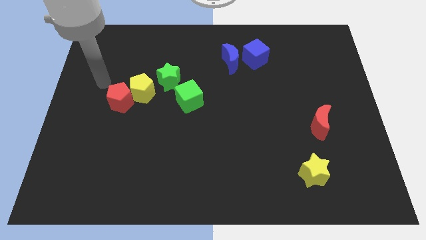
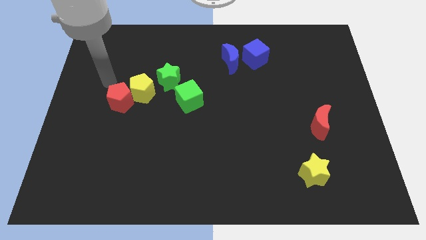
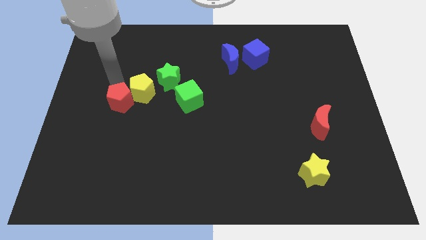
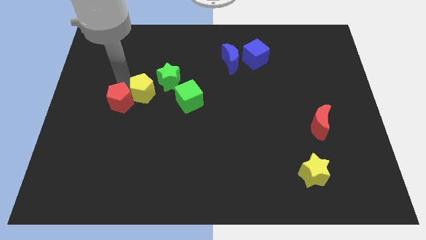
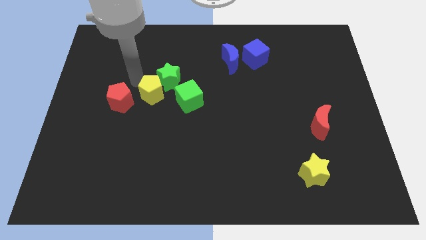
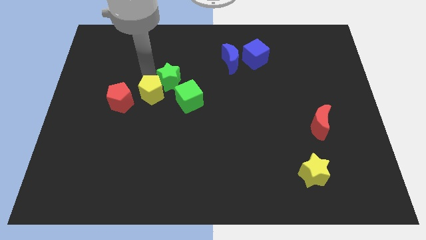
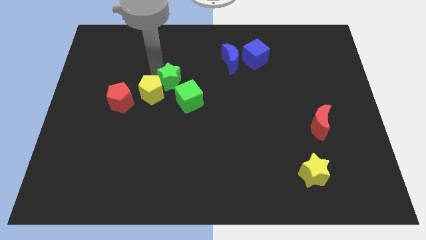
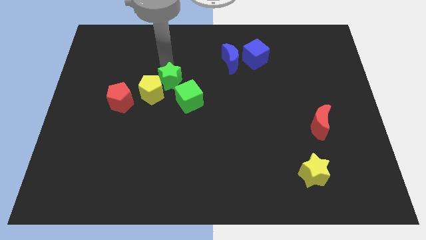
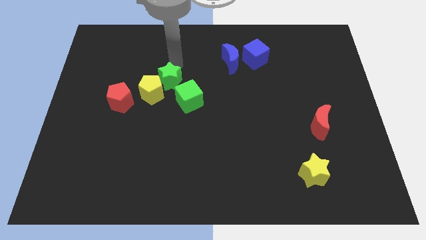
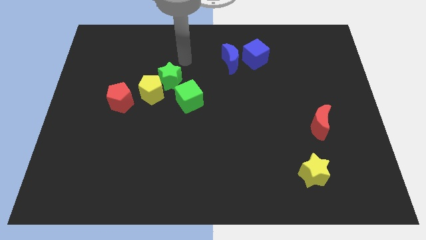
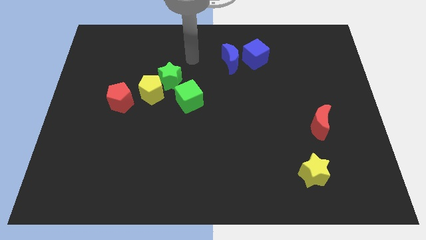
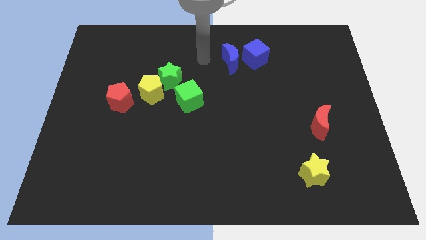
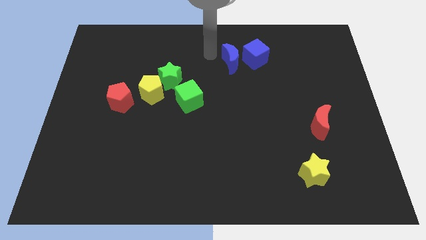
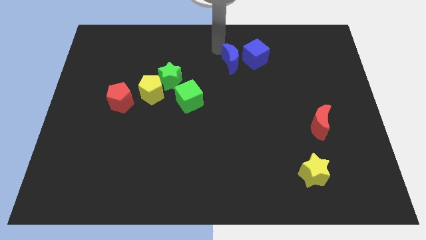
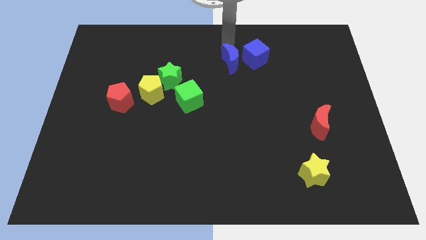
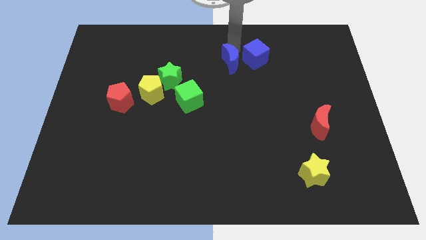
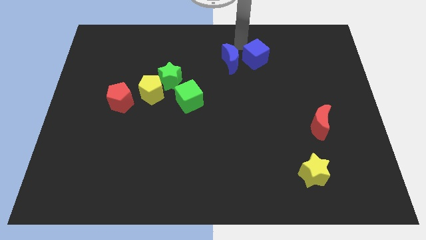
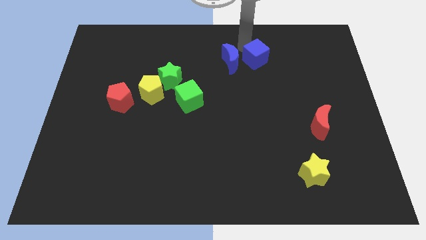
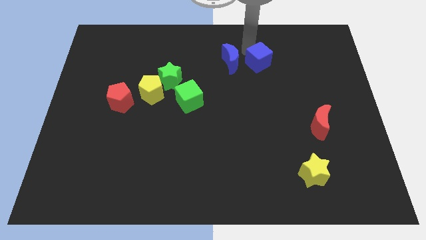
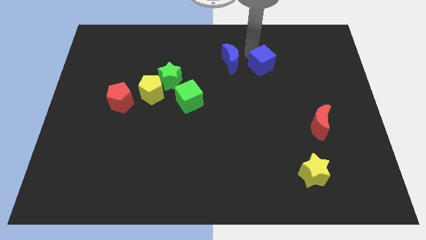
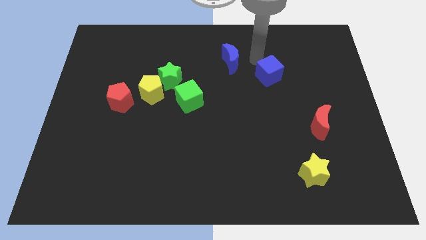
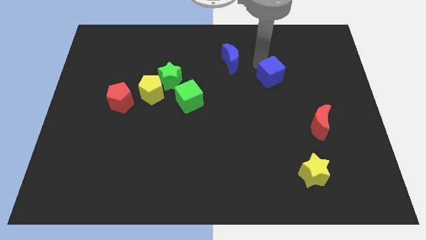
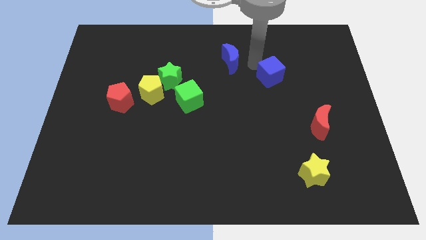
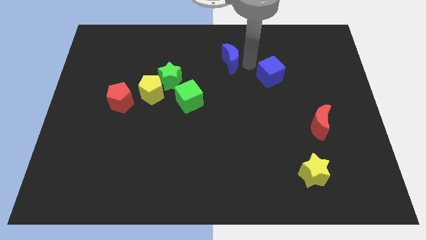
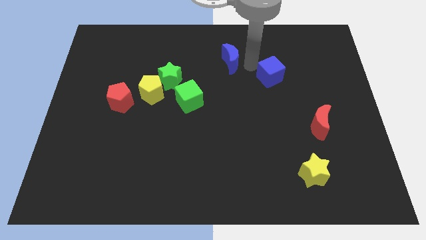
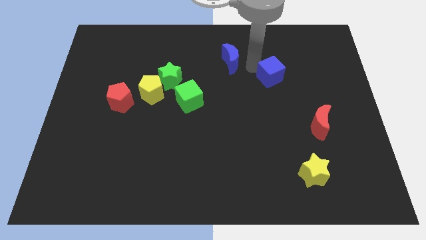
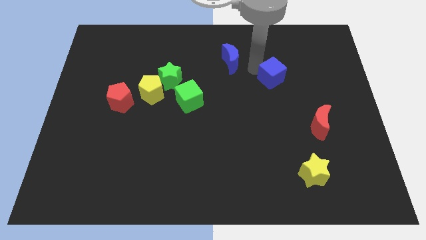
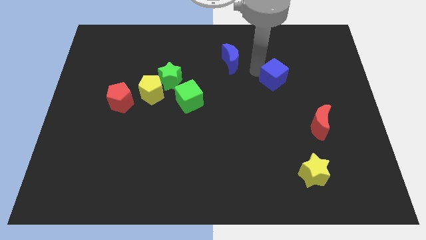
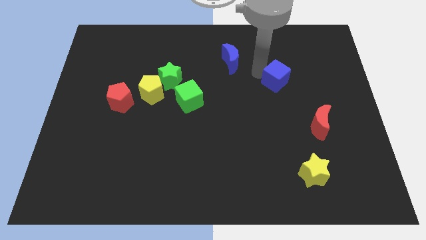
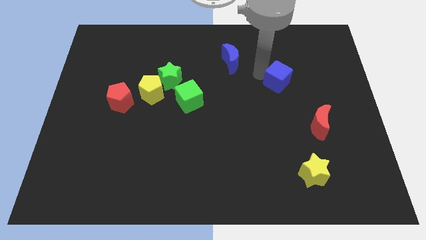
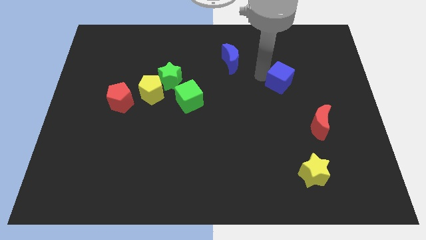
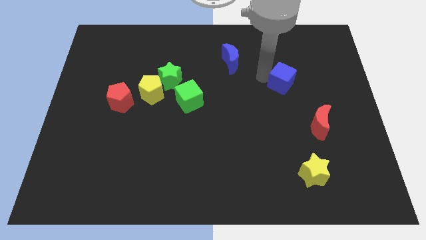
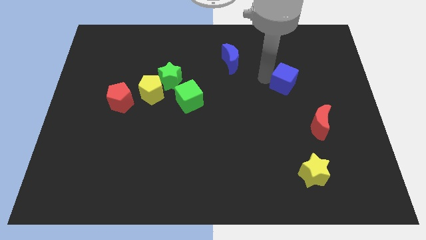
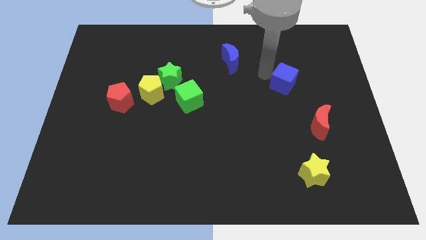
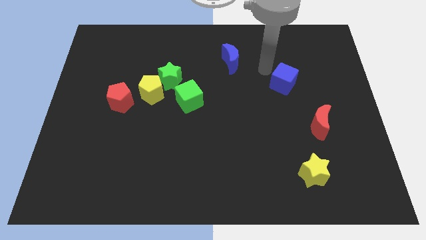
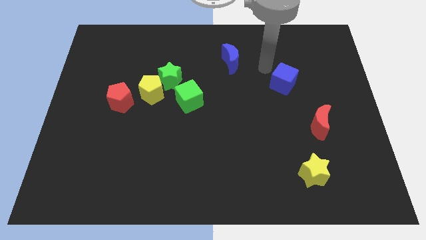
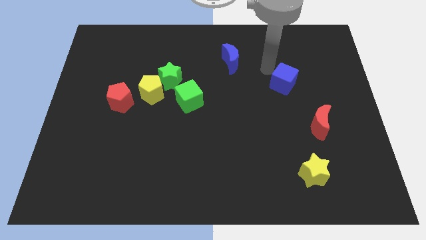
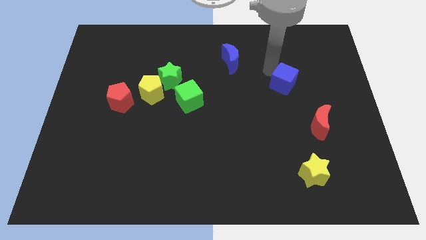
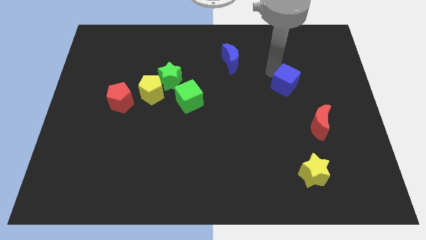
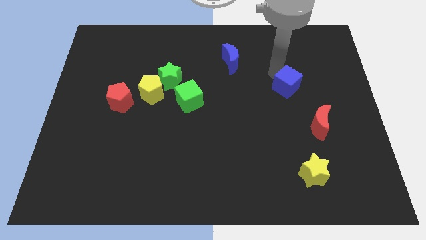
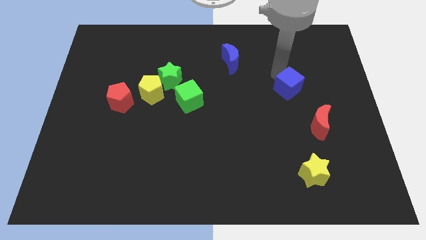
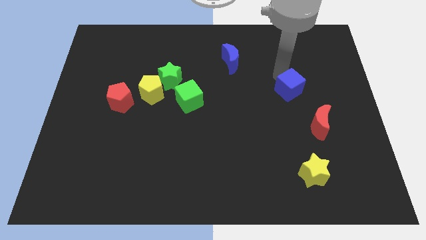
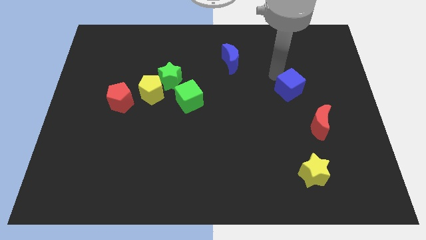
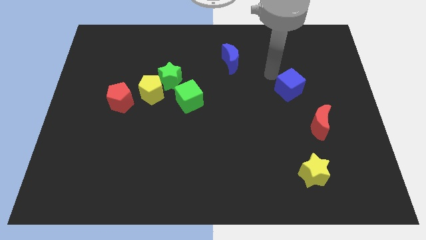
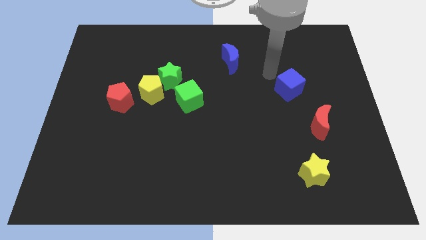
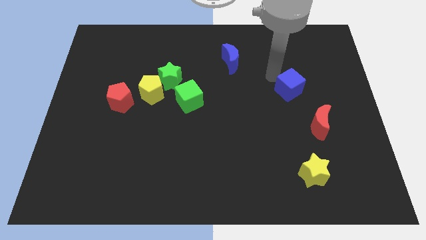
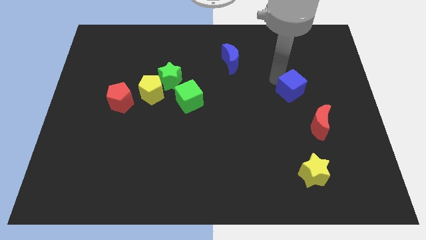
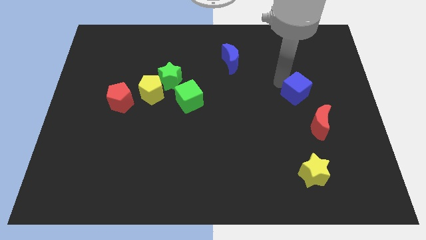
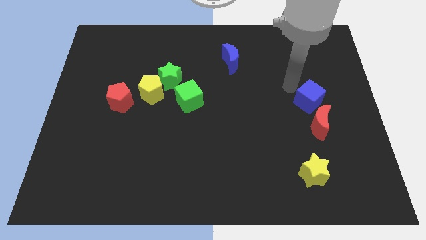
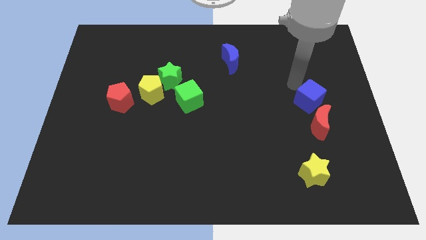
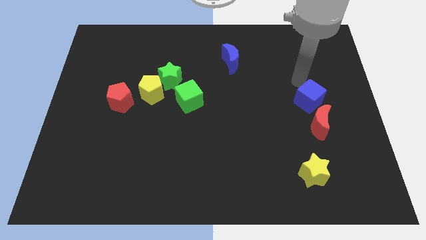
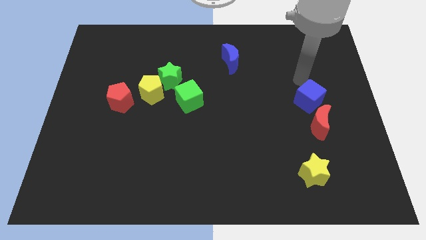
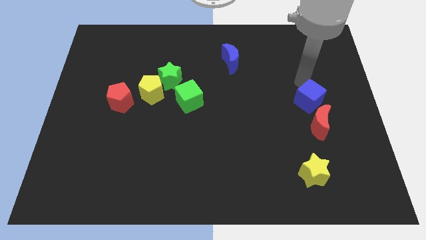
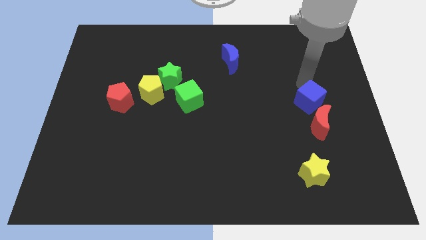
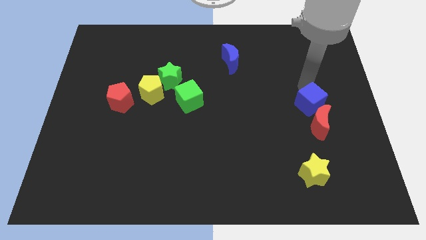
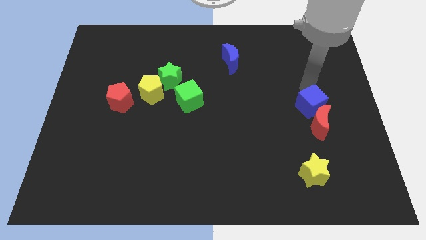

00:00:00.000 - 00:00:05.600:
move the blue cube close to the red moon

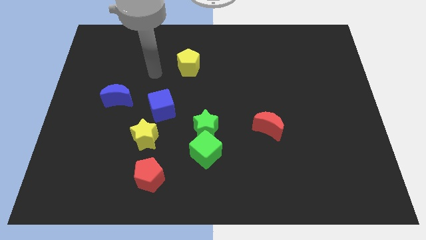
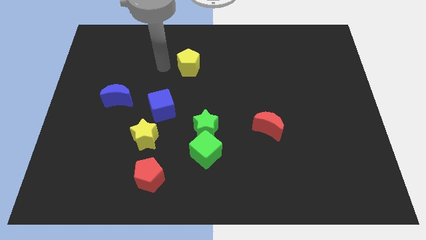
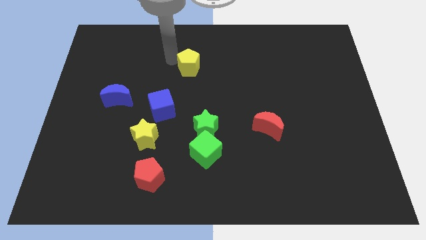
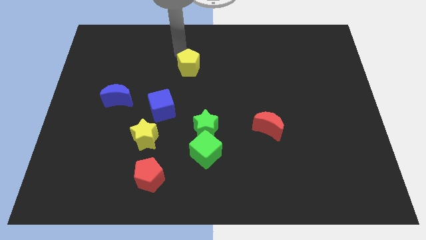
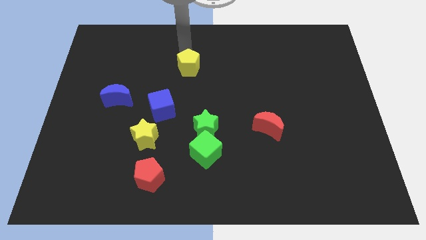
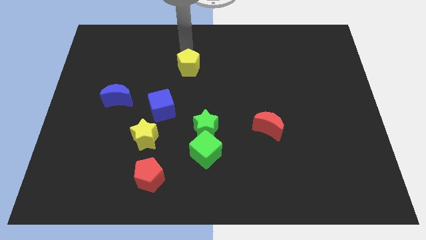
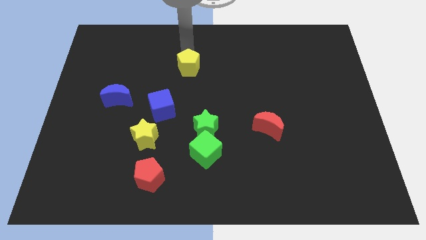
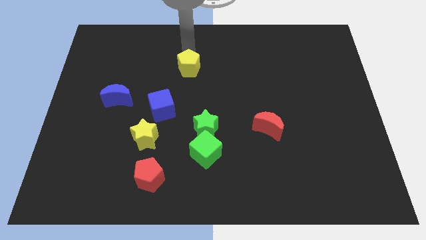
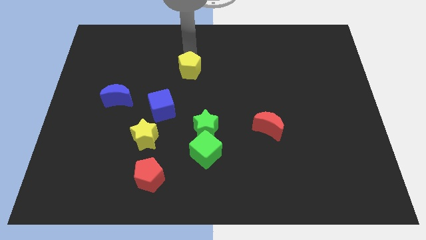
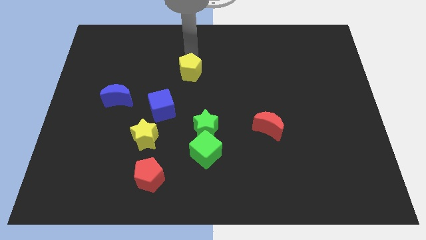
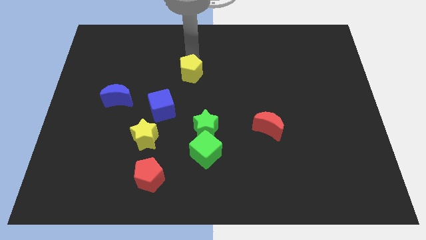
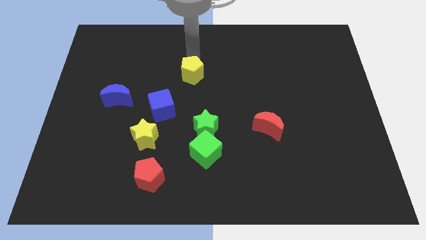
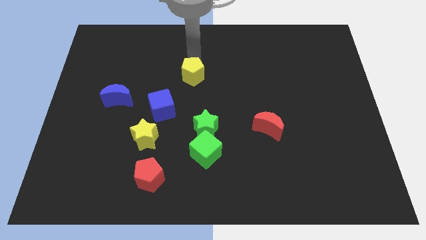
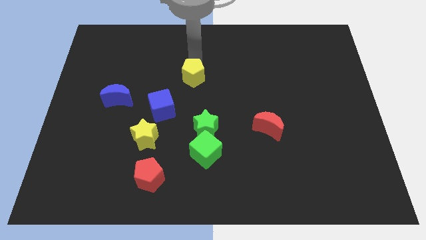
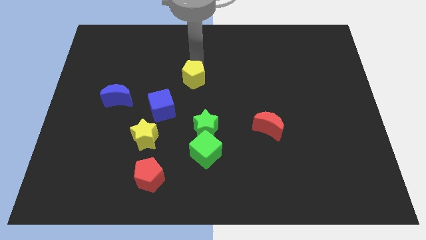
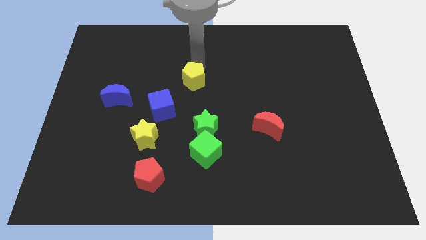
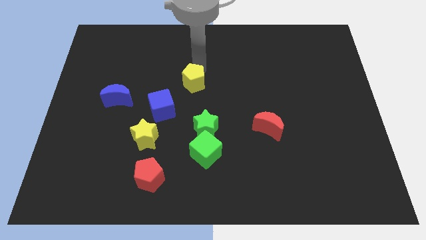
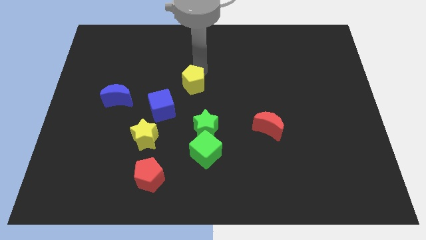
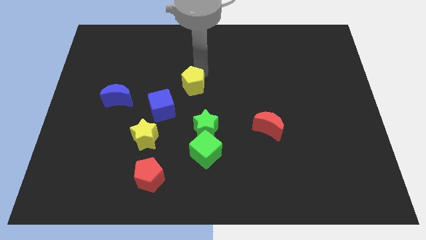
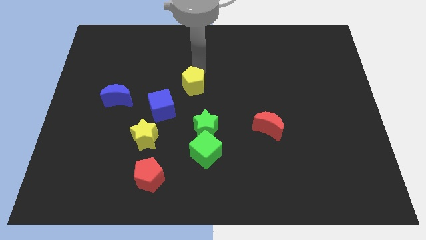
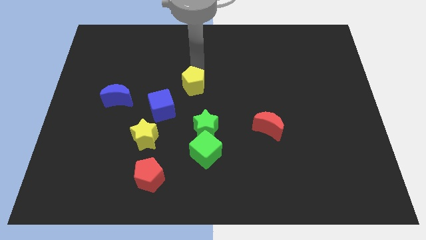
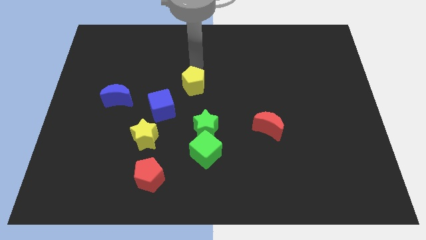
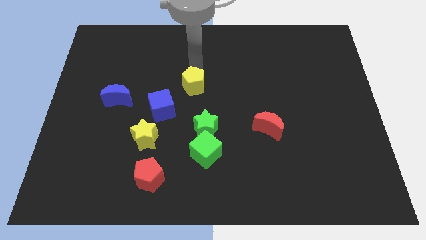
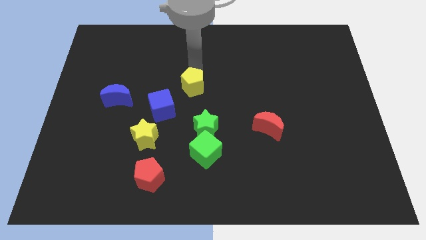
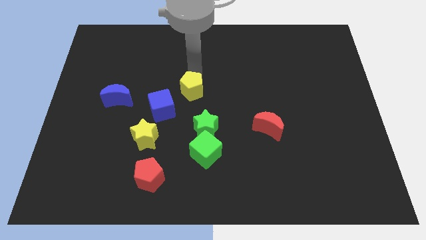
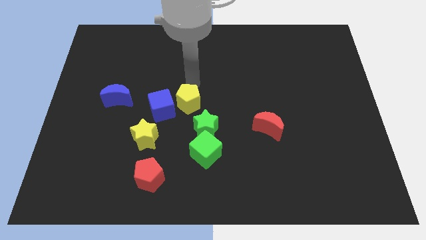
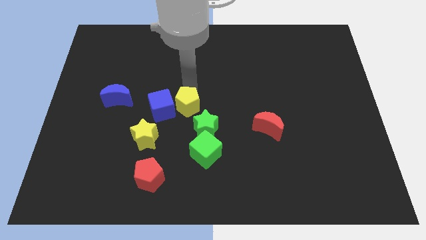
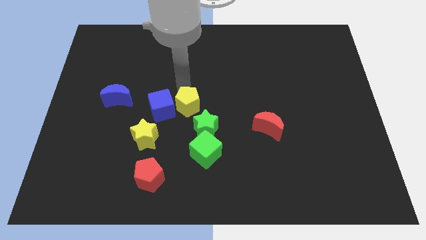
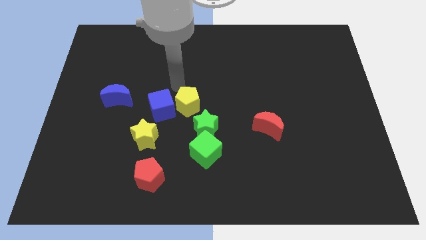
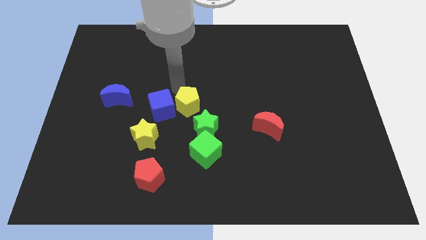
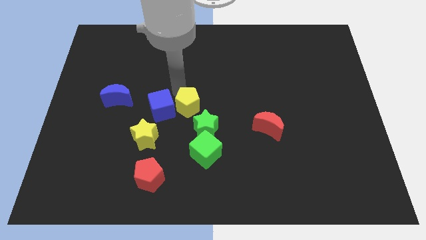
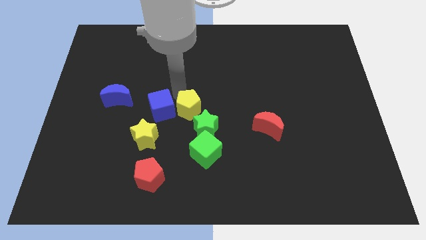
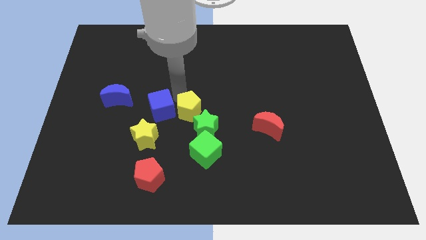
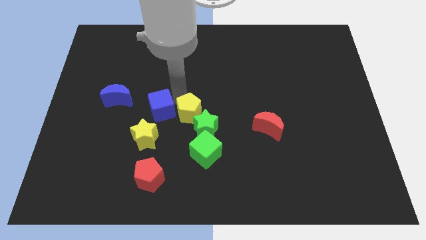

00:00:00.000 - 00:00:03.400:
slide the yellow pentagon to the green star
